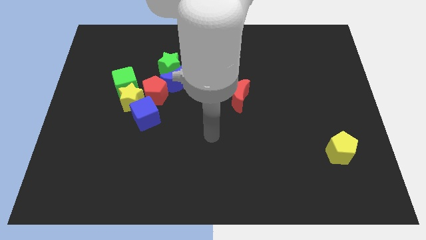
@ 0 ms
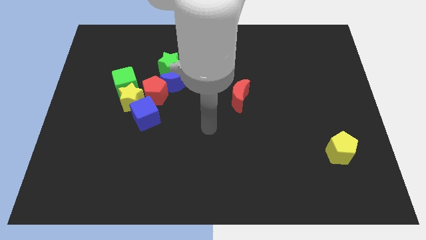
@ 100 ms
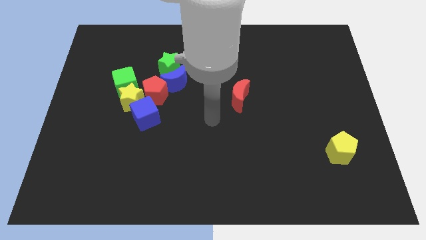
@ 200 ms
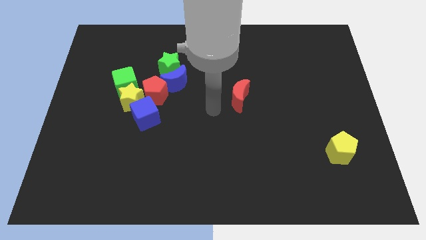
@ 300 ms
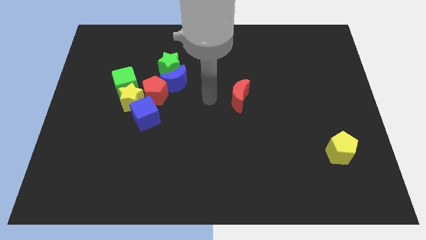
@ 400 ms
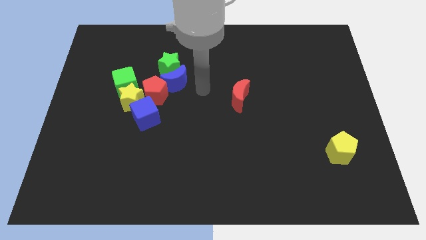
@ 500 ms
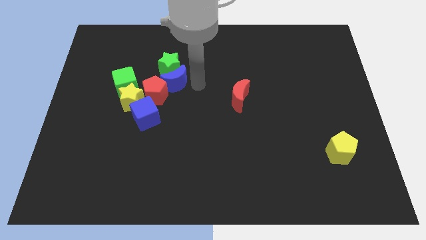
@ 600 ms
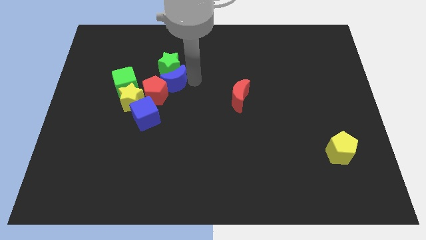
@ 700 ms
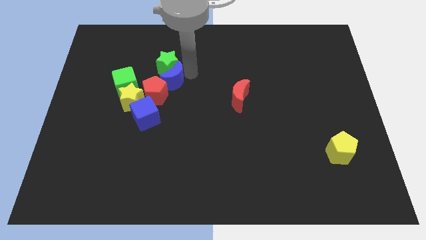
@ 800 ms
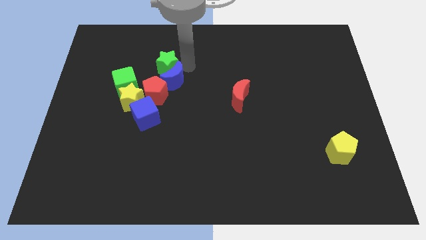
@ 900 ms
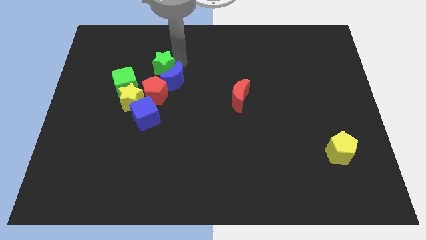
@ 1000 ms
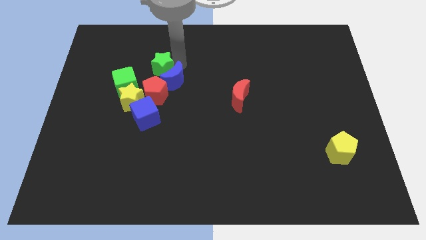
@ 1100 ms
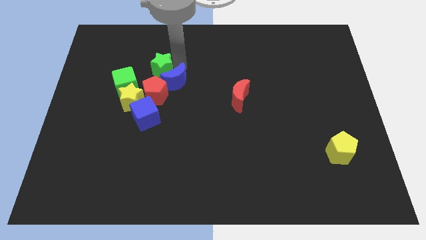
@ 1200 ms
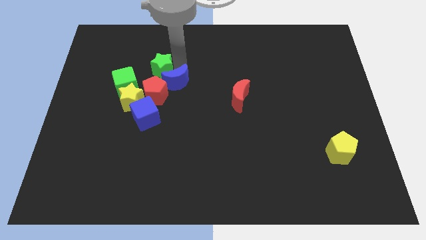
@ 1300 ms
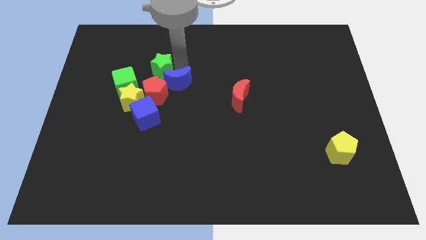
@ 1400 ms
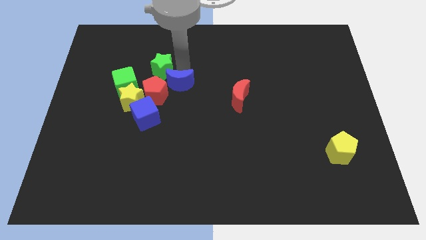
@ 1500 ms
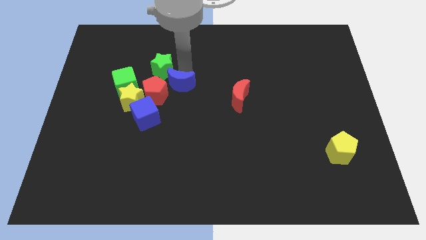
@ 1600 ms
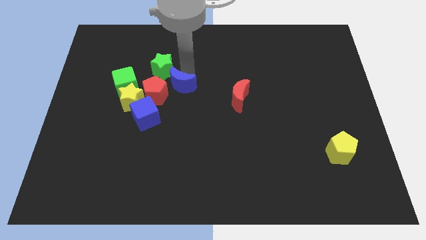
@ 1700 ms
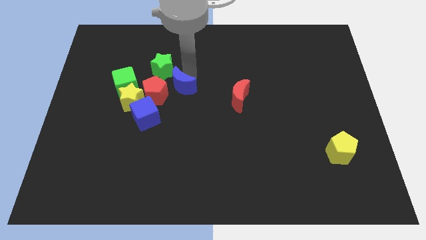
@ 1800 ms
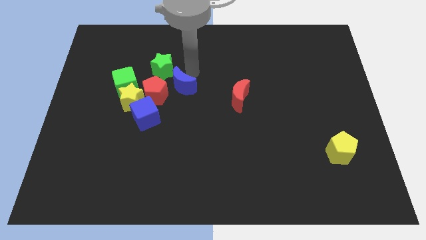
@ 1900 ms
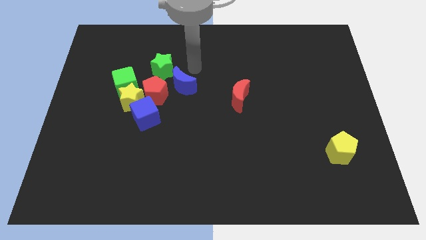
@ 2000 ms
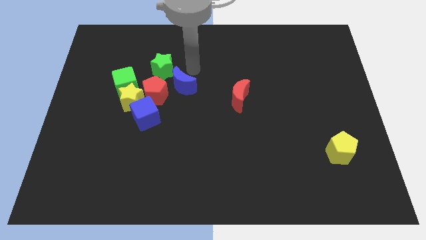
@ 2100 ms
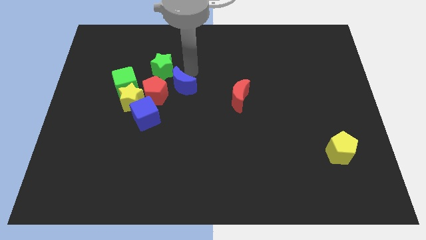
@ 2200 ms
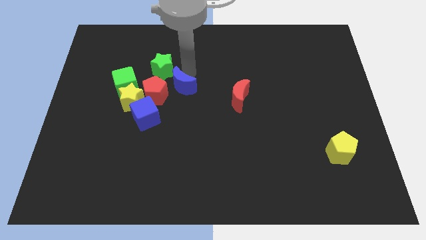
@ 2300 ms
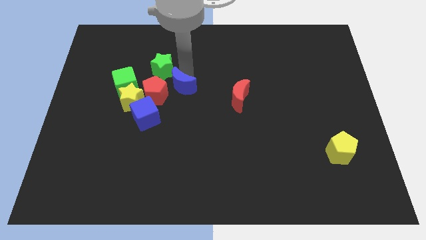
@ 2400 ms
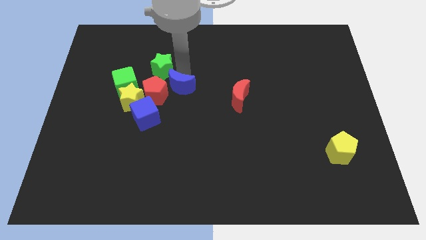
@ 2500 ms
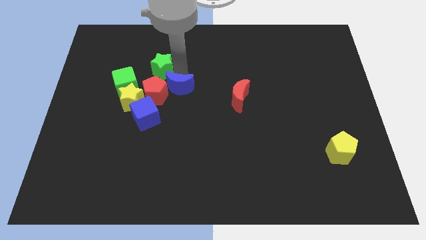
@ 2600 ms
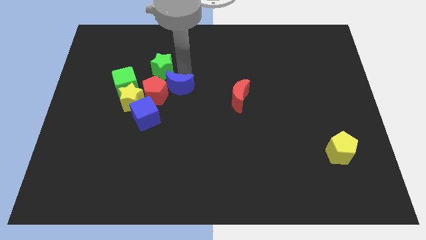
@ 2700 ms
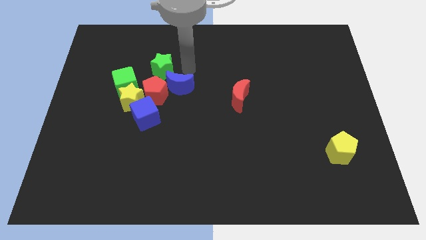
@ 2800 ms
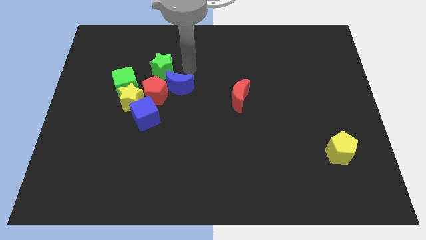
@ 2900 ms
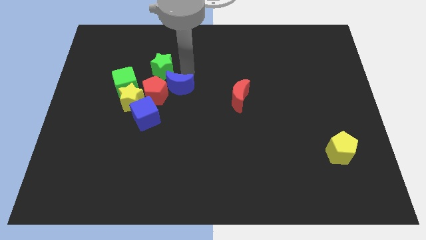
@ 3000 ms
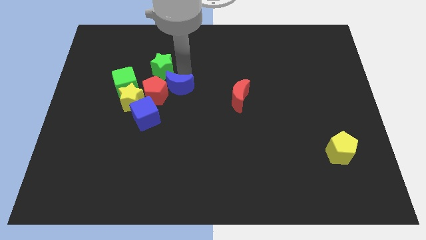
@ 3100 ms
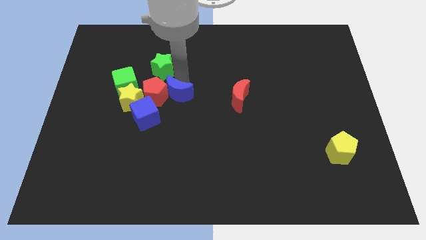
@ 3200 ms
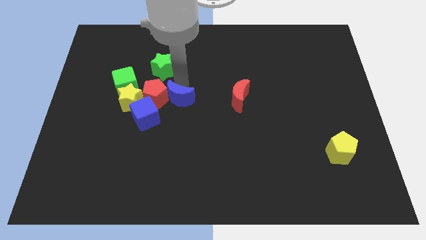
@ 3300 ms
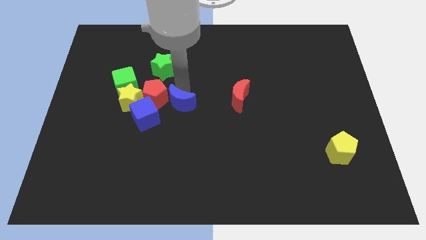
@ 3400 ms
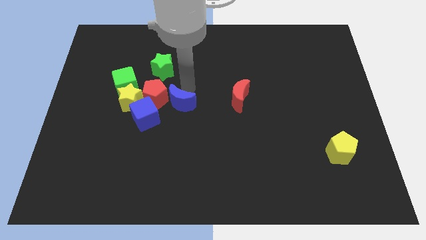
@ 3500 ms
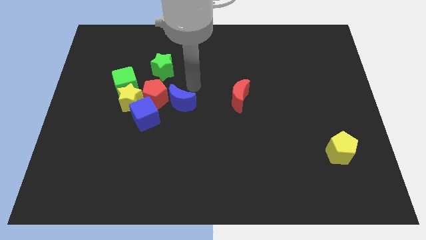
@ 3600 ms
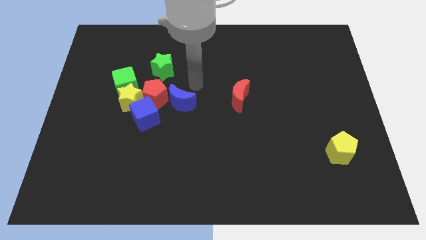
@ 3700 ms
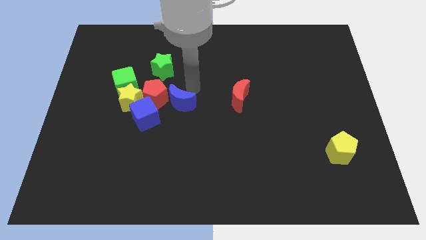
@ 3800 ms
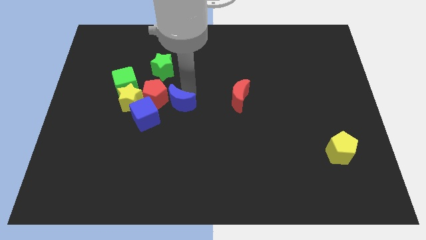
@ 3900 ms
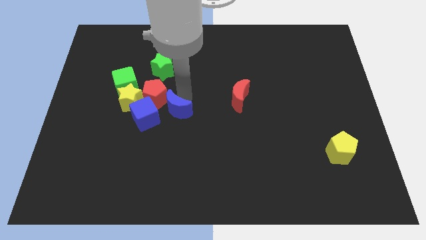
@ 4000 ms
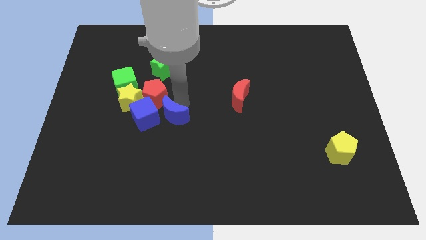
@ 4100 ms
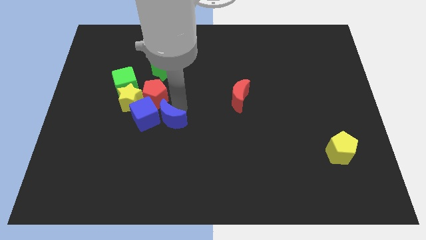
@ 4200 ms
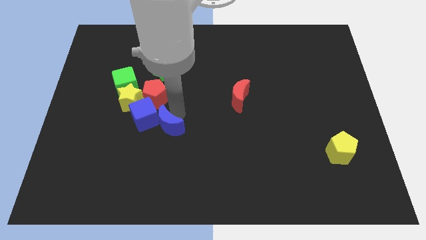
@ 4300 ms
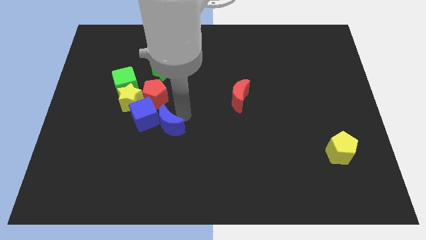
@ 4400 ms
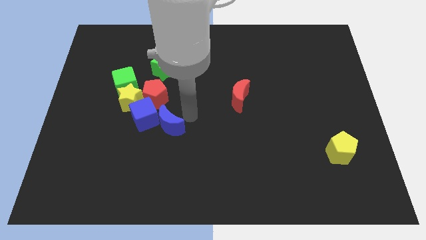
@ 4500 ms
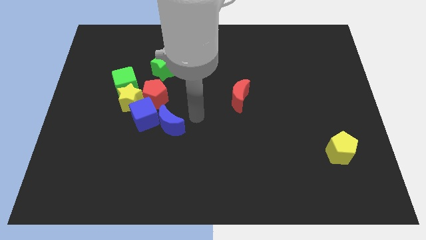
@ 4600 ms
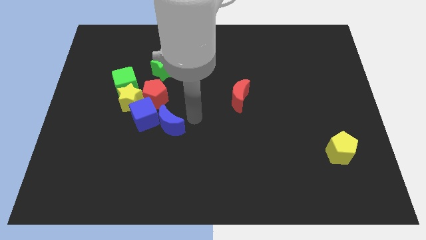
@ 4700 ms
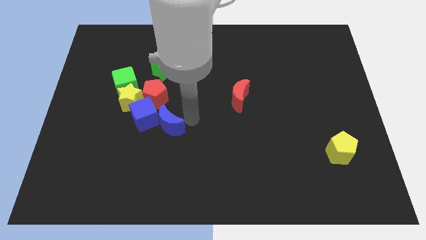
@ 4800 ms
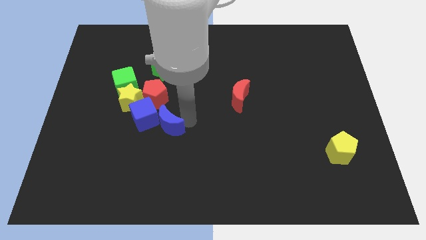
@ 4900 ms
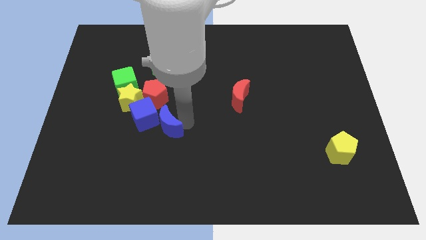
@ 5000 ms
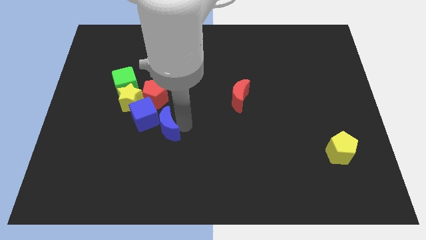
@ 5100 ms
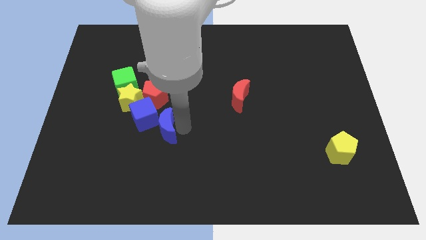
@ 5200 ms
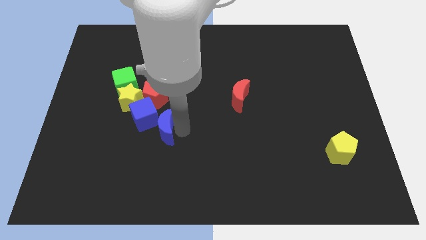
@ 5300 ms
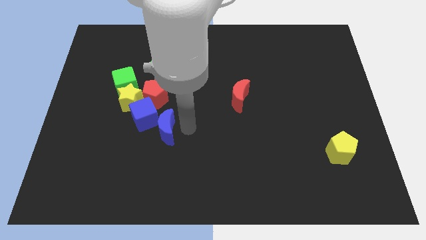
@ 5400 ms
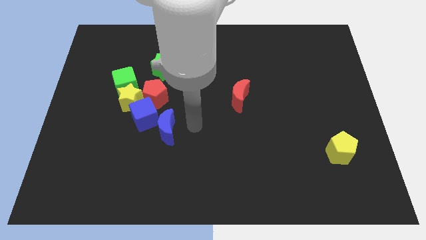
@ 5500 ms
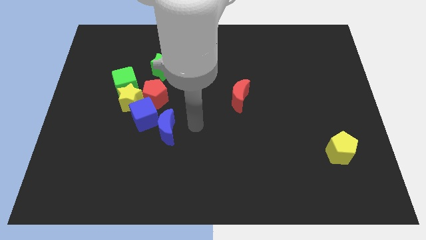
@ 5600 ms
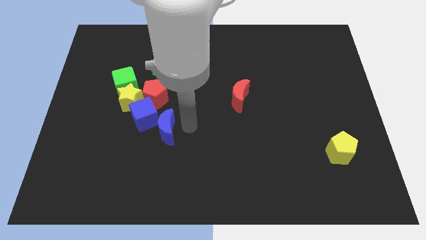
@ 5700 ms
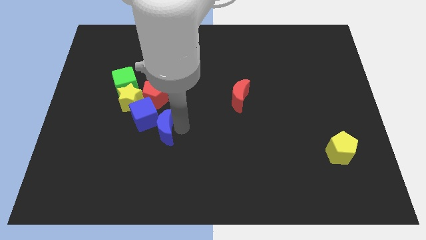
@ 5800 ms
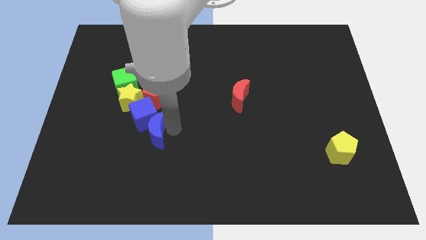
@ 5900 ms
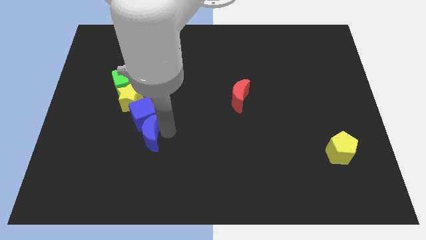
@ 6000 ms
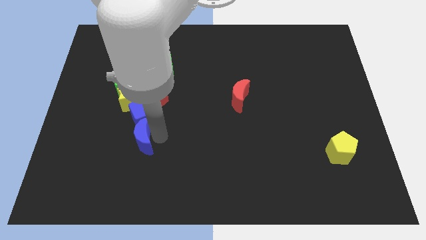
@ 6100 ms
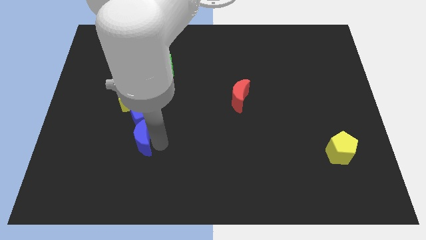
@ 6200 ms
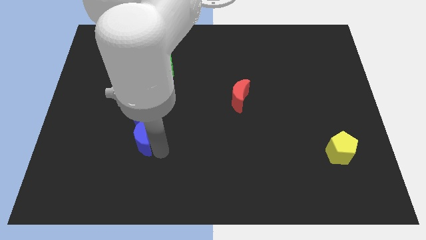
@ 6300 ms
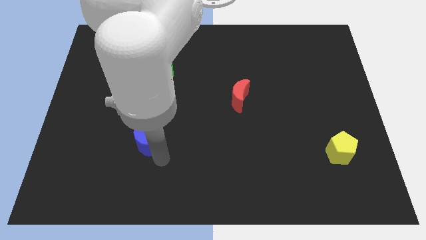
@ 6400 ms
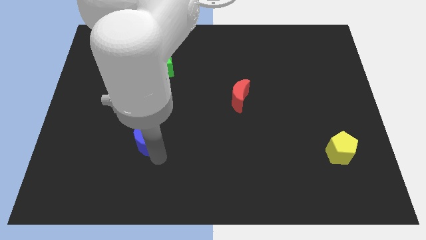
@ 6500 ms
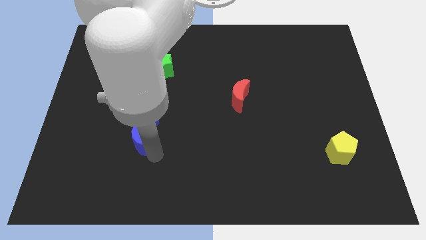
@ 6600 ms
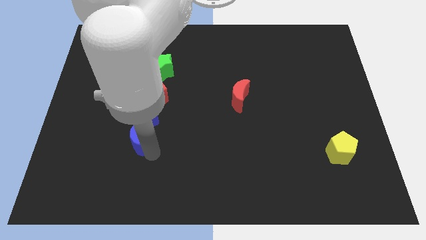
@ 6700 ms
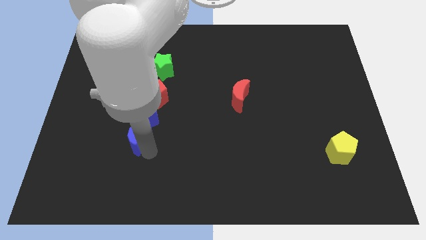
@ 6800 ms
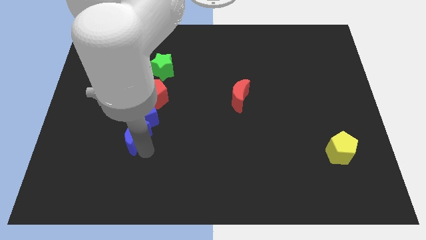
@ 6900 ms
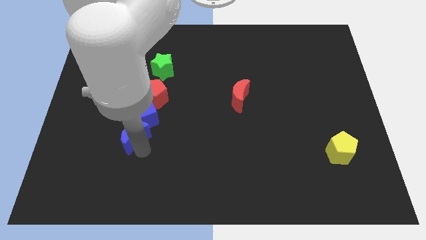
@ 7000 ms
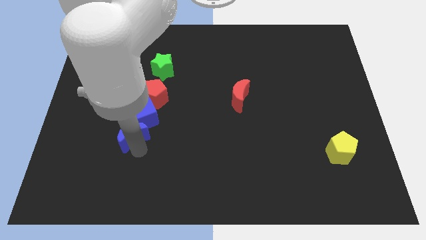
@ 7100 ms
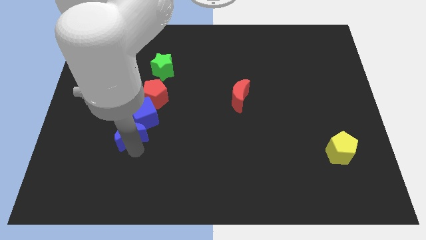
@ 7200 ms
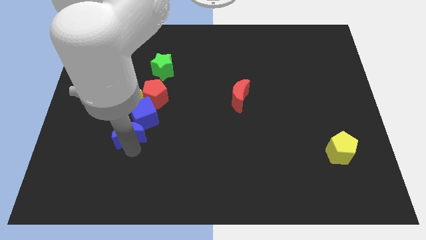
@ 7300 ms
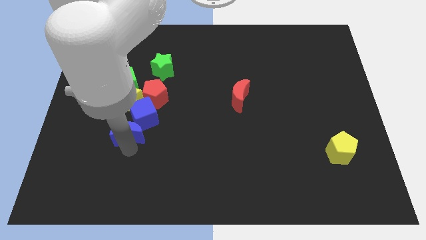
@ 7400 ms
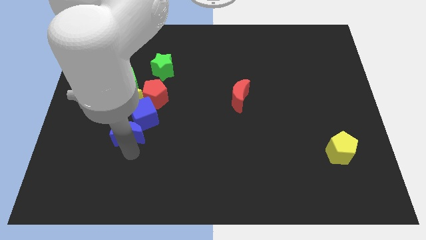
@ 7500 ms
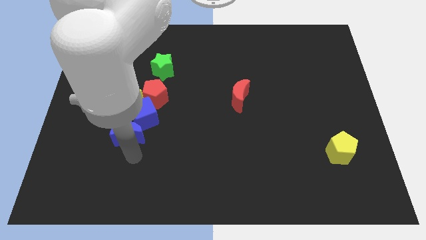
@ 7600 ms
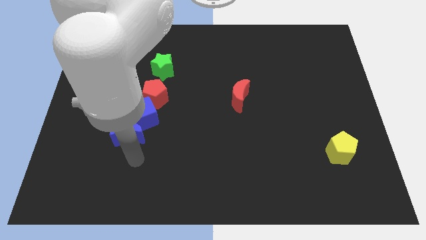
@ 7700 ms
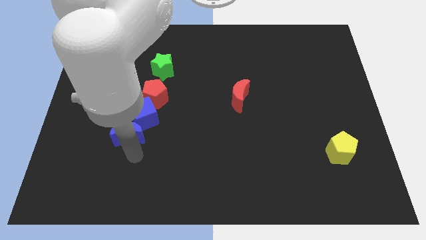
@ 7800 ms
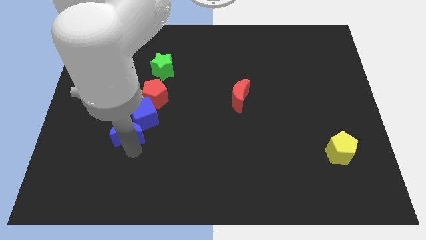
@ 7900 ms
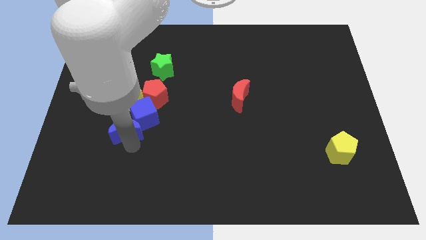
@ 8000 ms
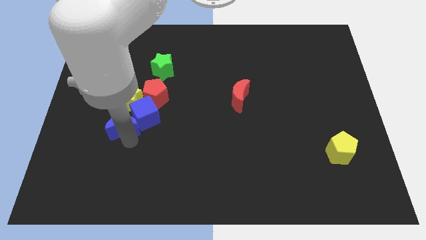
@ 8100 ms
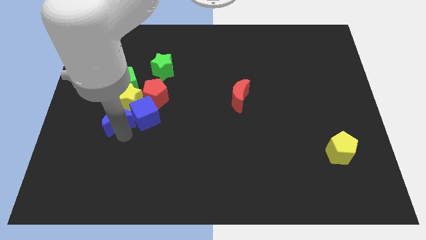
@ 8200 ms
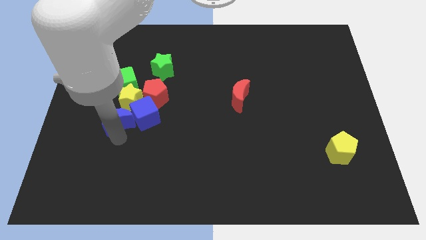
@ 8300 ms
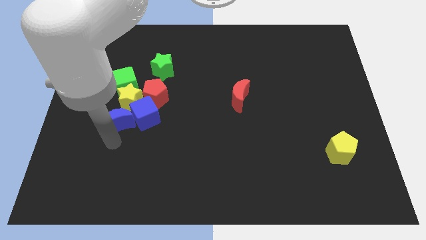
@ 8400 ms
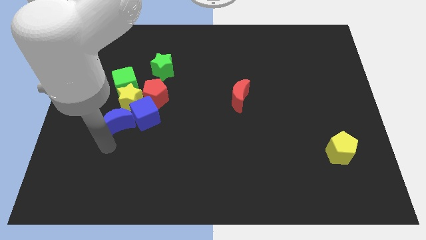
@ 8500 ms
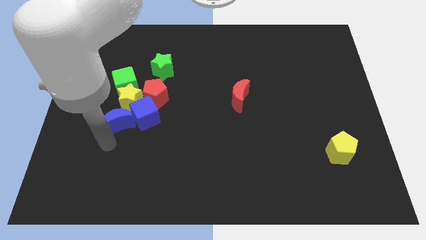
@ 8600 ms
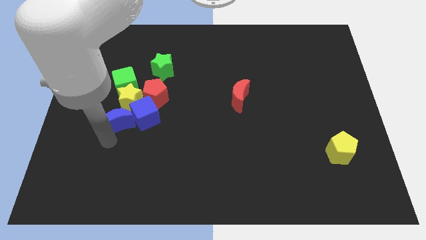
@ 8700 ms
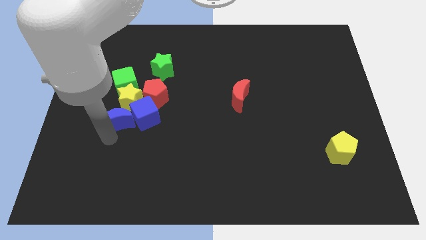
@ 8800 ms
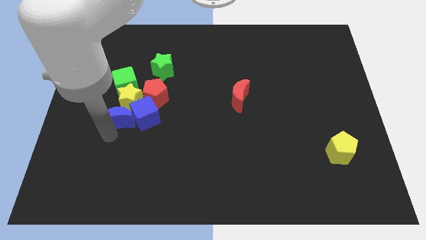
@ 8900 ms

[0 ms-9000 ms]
put the blue moon towards the yellow star
